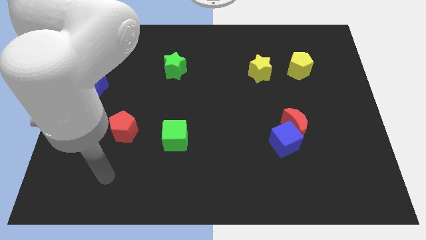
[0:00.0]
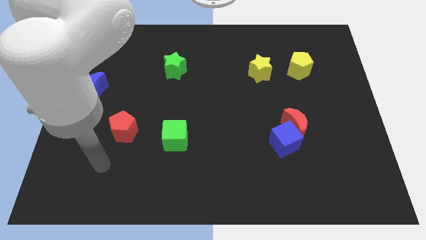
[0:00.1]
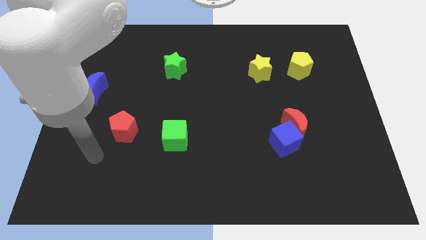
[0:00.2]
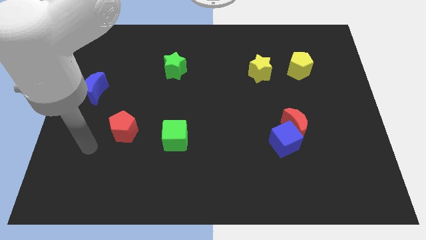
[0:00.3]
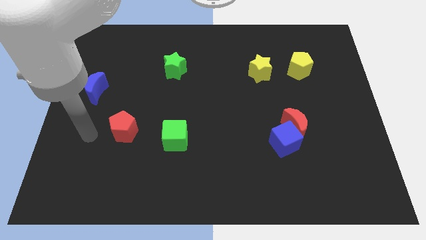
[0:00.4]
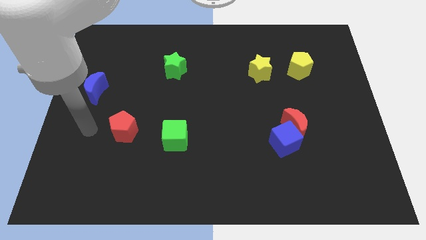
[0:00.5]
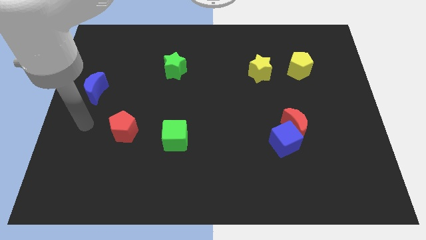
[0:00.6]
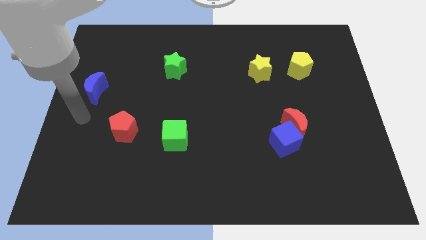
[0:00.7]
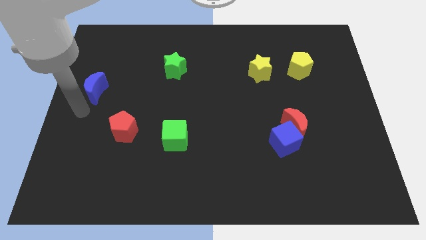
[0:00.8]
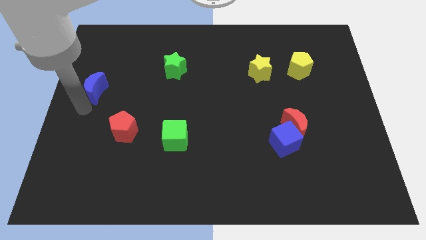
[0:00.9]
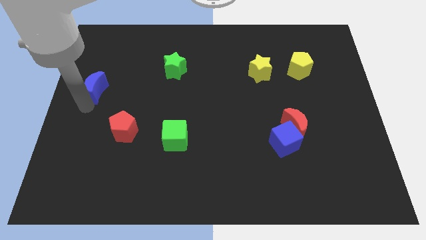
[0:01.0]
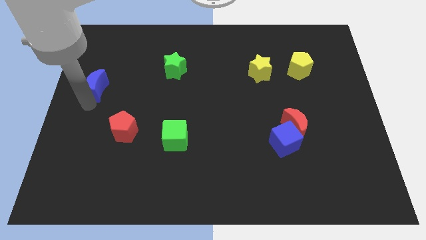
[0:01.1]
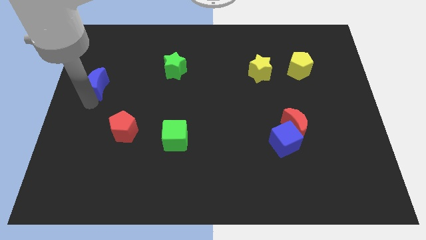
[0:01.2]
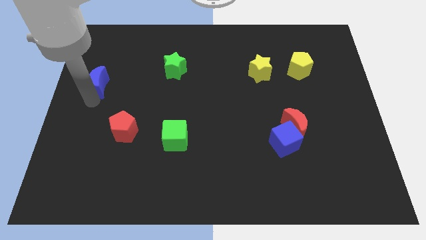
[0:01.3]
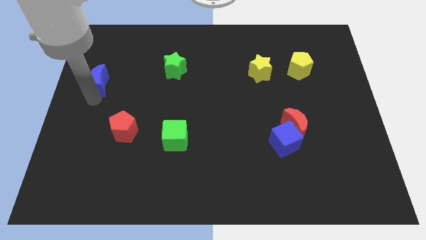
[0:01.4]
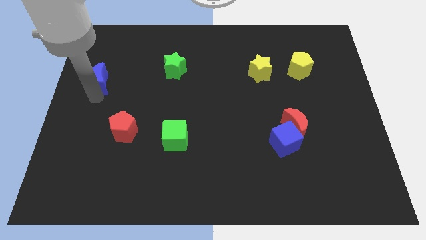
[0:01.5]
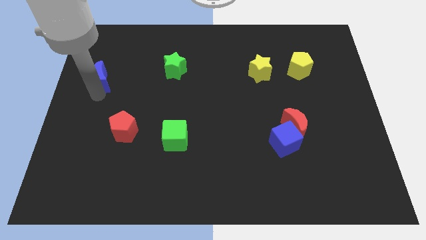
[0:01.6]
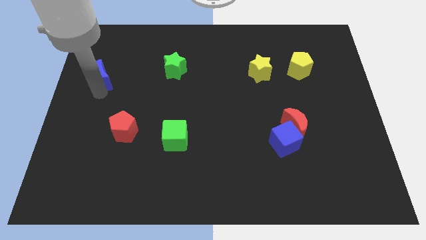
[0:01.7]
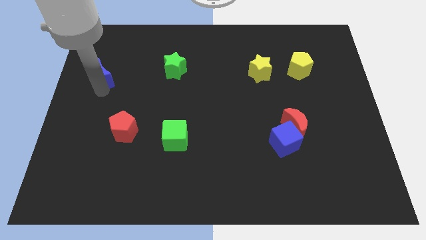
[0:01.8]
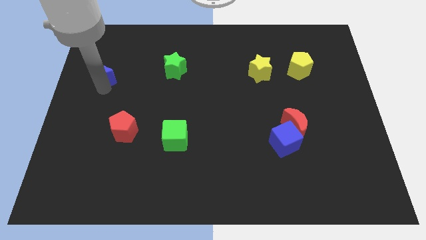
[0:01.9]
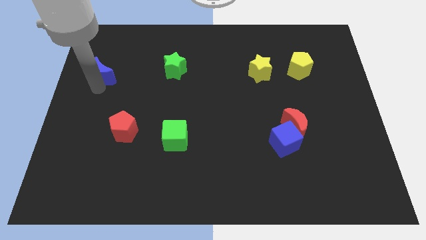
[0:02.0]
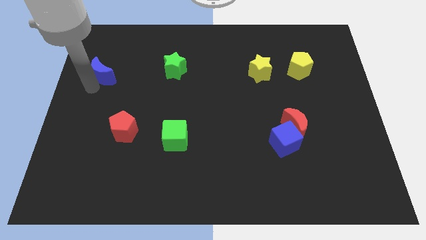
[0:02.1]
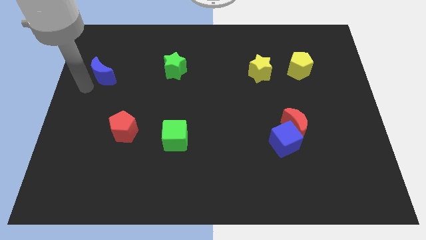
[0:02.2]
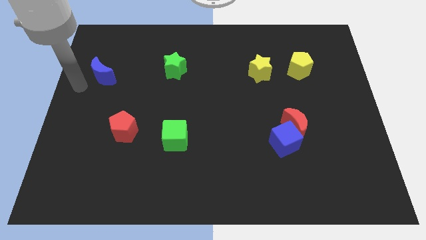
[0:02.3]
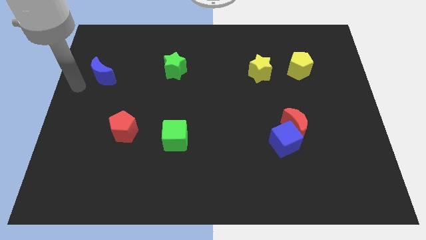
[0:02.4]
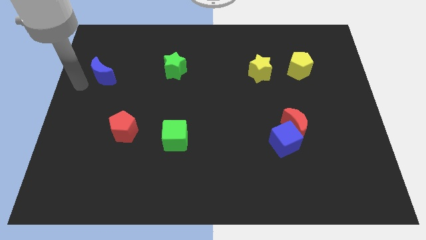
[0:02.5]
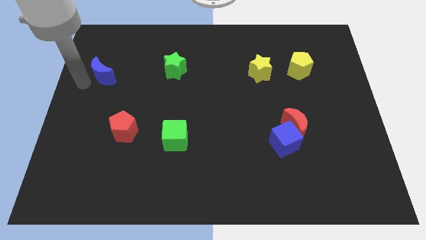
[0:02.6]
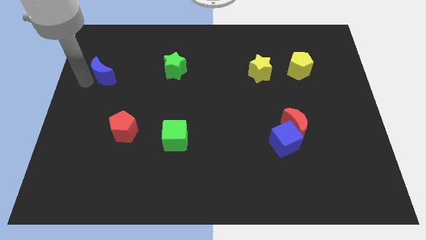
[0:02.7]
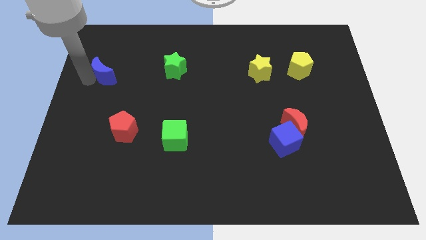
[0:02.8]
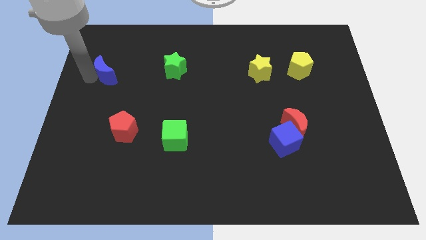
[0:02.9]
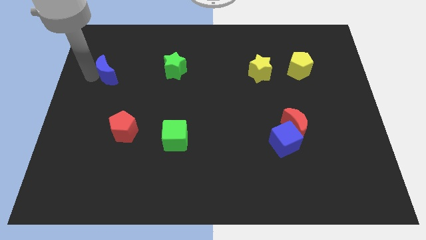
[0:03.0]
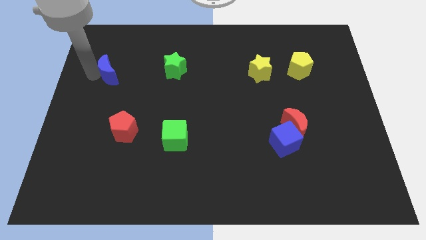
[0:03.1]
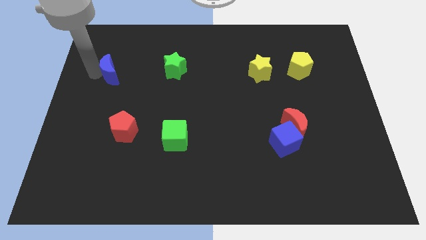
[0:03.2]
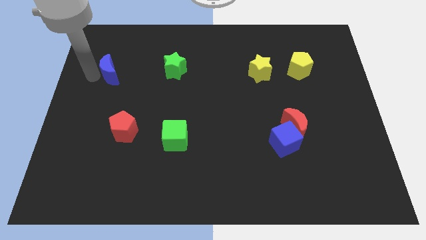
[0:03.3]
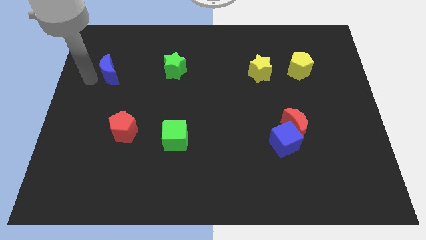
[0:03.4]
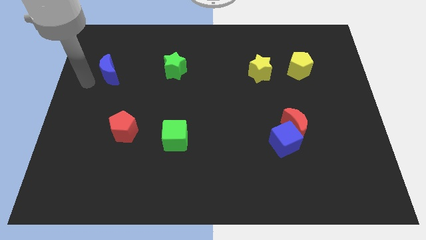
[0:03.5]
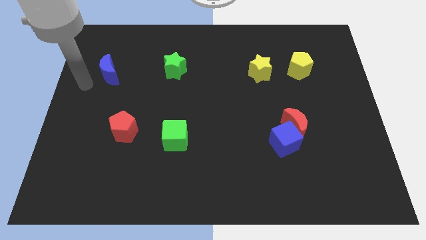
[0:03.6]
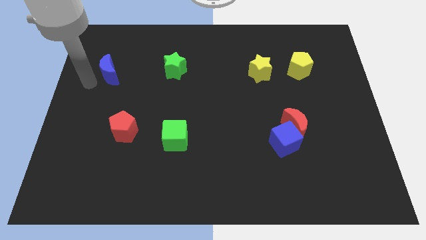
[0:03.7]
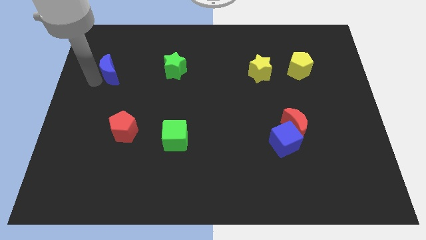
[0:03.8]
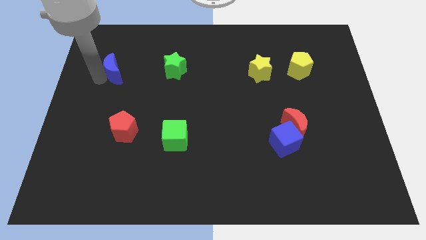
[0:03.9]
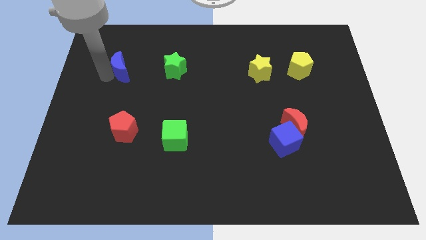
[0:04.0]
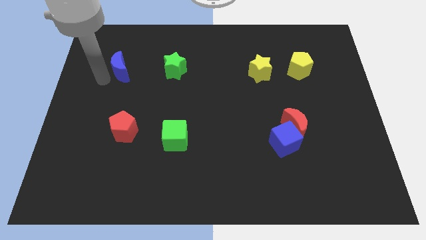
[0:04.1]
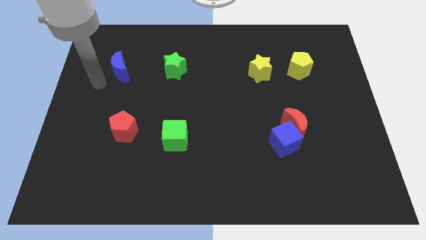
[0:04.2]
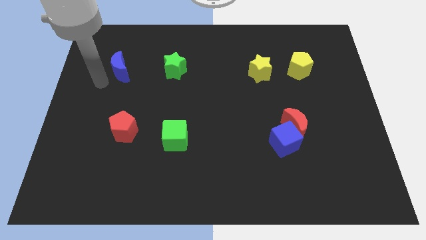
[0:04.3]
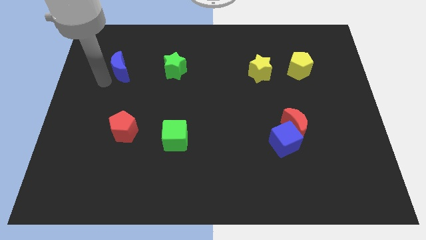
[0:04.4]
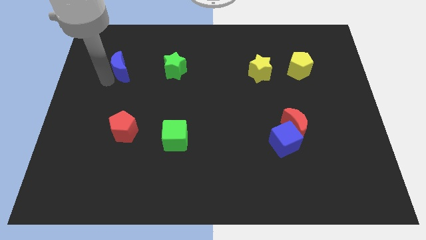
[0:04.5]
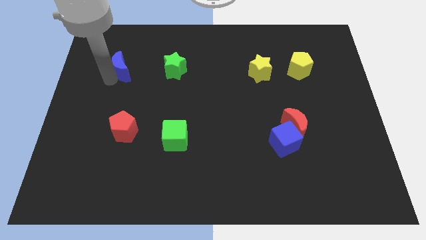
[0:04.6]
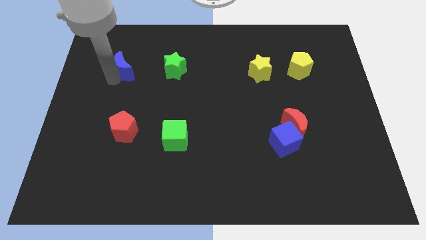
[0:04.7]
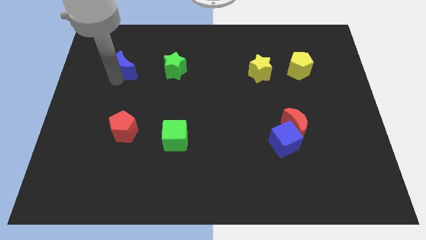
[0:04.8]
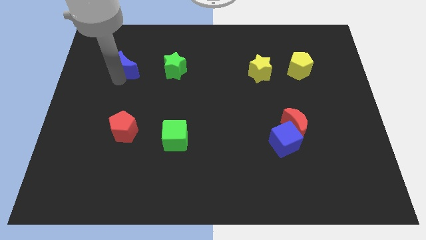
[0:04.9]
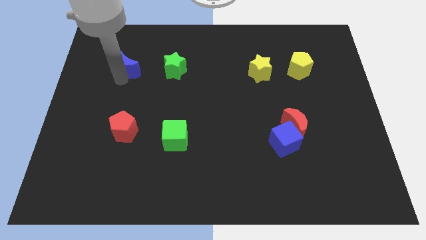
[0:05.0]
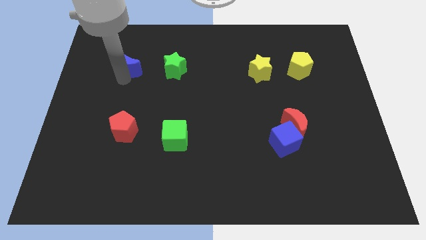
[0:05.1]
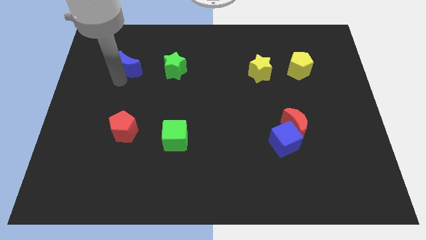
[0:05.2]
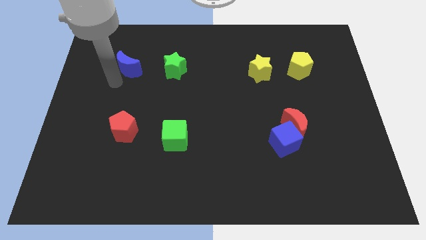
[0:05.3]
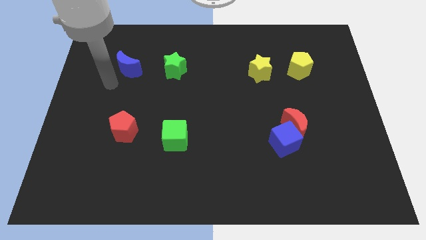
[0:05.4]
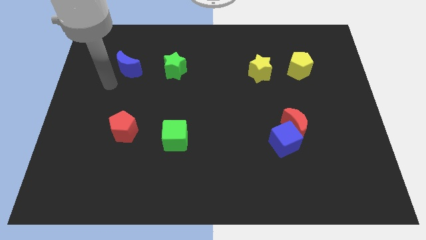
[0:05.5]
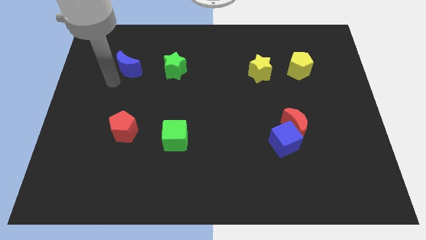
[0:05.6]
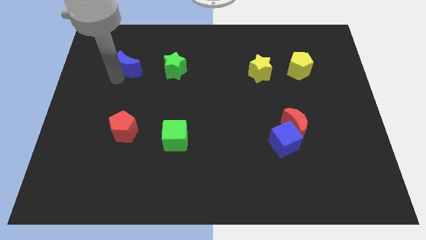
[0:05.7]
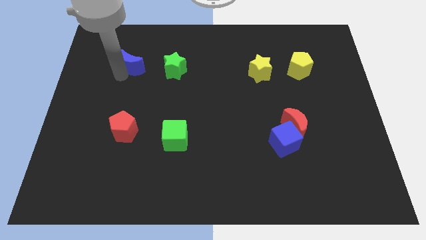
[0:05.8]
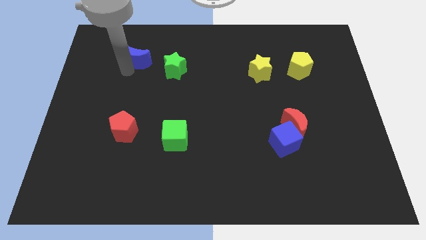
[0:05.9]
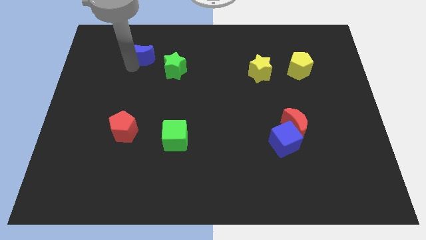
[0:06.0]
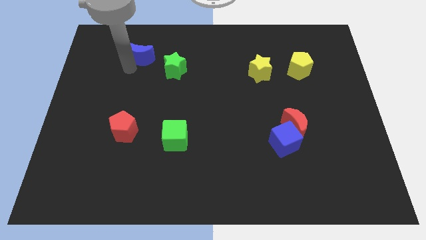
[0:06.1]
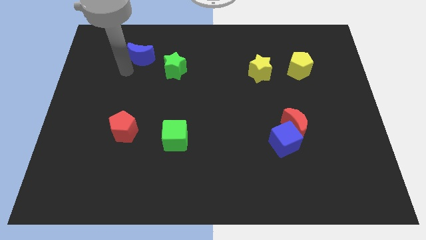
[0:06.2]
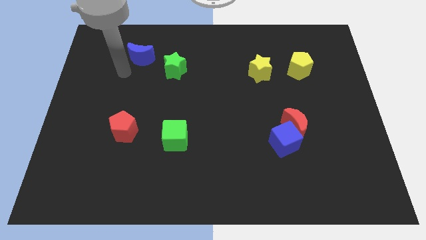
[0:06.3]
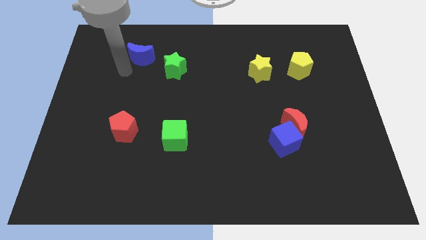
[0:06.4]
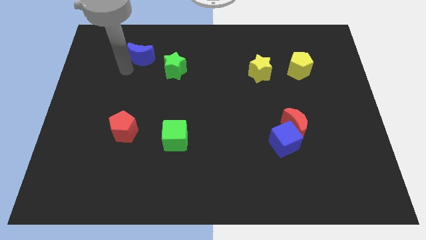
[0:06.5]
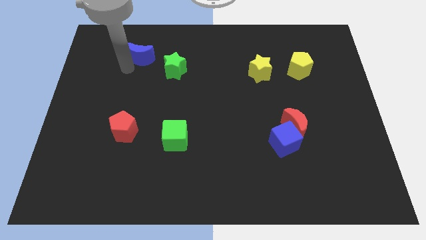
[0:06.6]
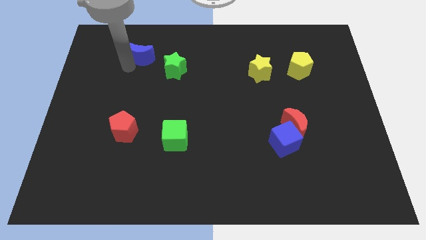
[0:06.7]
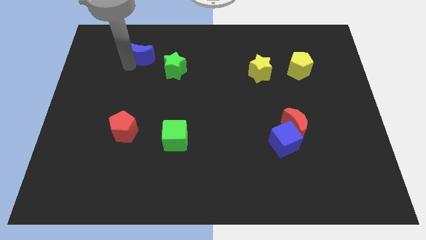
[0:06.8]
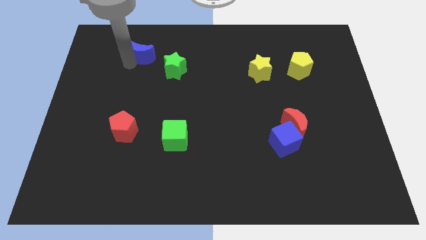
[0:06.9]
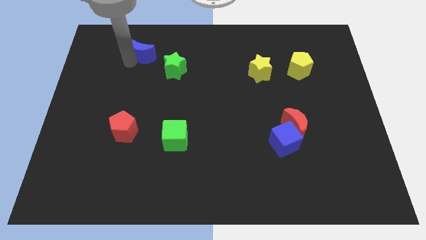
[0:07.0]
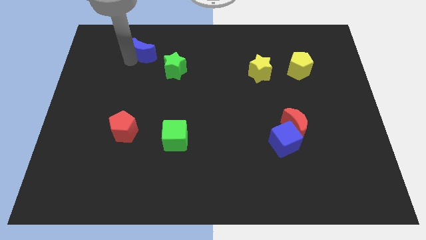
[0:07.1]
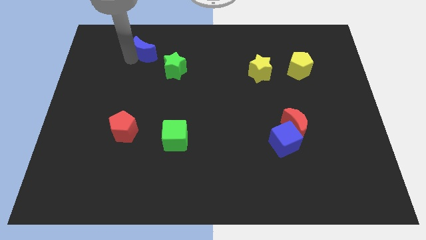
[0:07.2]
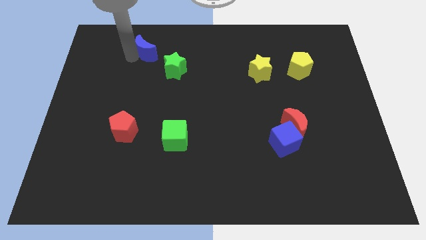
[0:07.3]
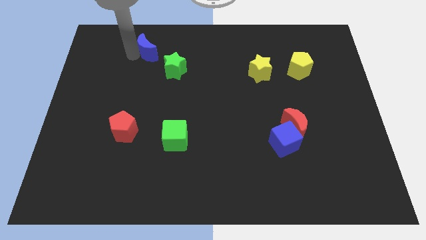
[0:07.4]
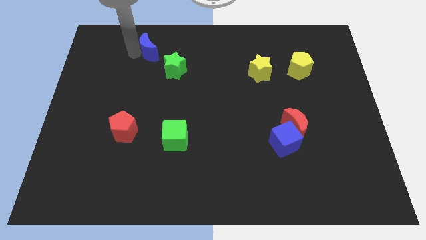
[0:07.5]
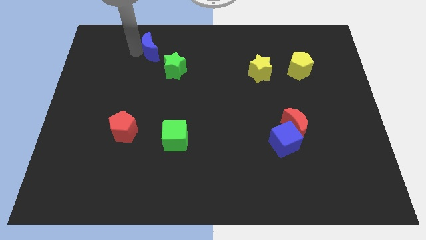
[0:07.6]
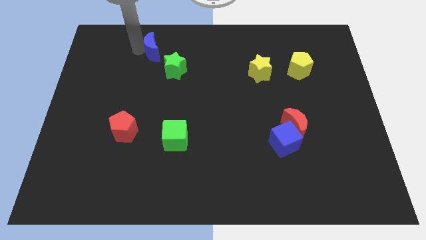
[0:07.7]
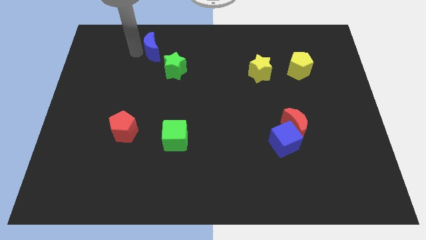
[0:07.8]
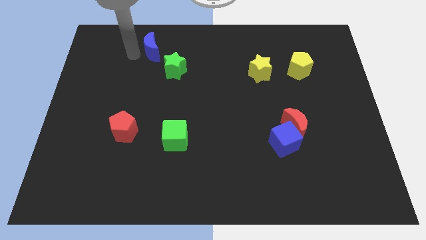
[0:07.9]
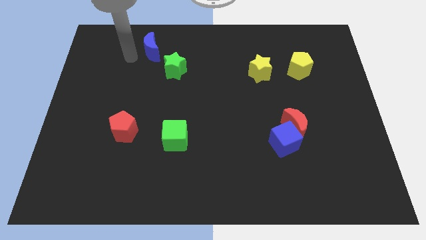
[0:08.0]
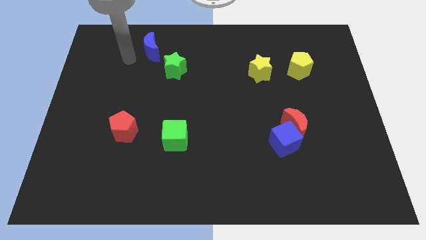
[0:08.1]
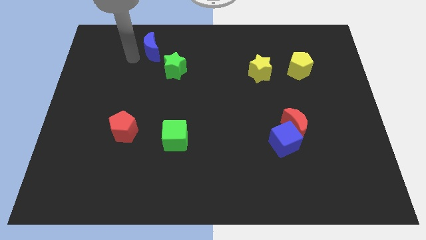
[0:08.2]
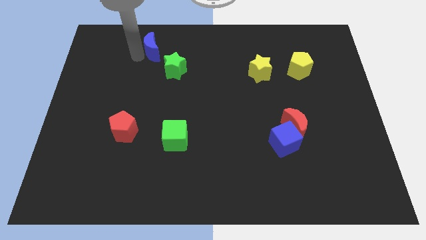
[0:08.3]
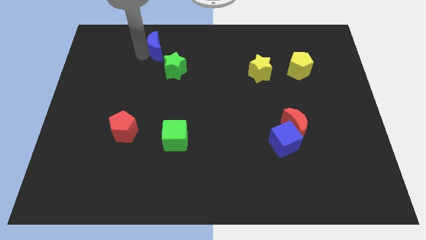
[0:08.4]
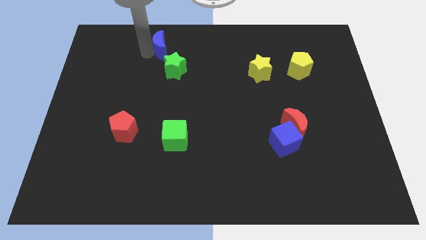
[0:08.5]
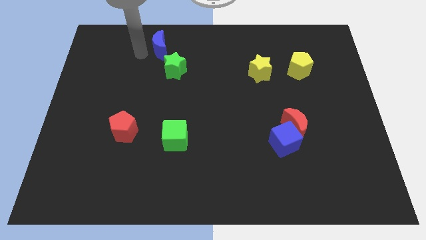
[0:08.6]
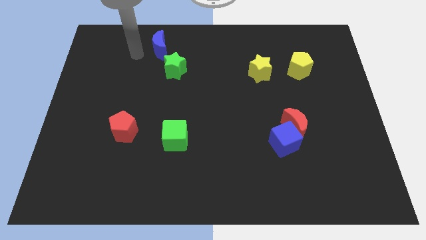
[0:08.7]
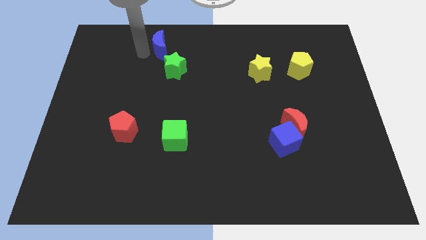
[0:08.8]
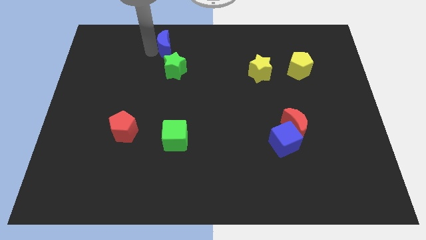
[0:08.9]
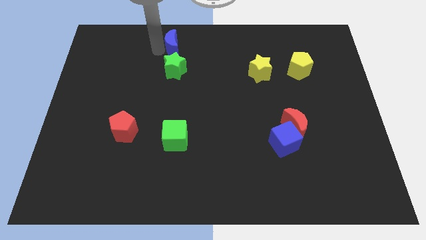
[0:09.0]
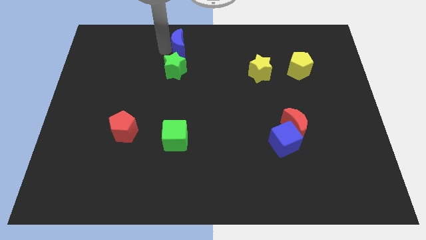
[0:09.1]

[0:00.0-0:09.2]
push the blue moon to the top
